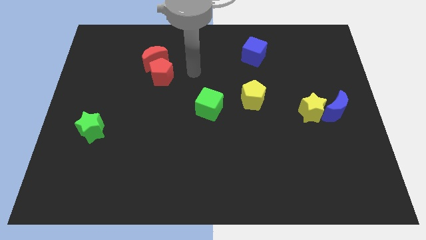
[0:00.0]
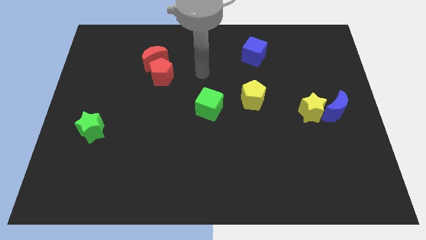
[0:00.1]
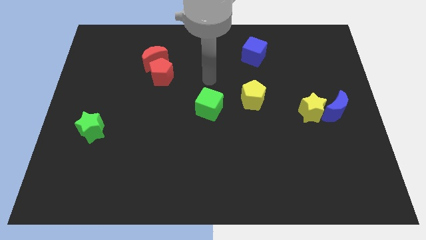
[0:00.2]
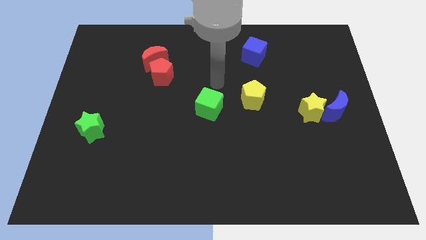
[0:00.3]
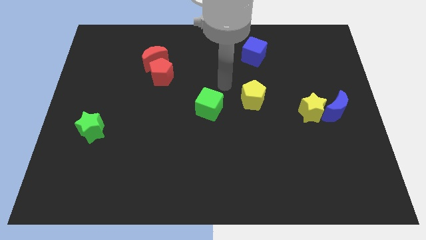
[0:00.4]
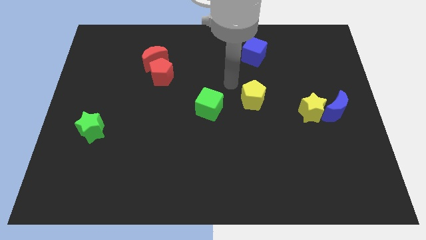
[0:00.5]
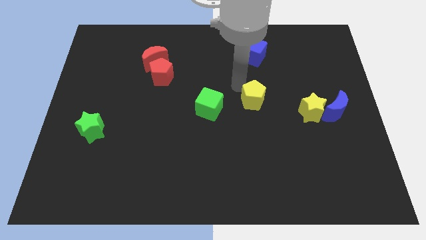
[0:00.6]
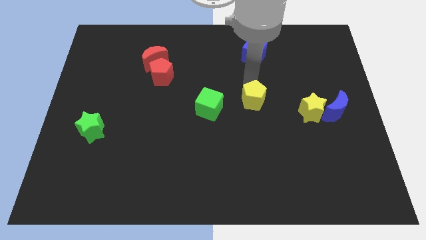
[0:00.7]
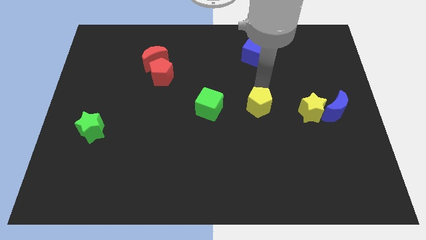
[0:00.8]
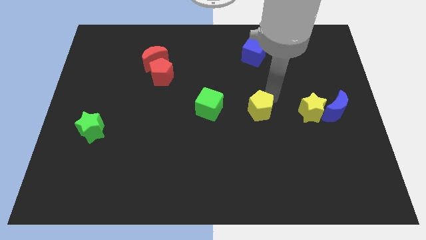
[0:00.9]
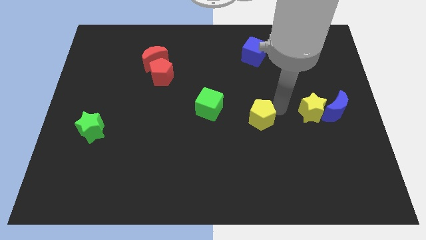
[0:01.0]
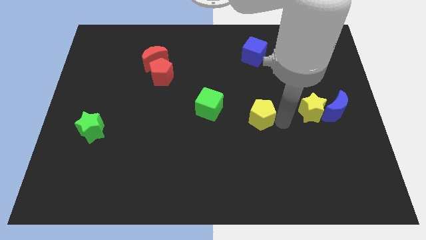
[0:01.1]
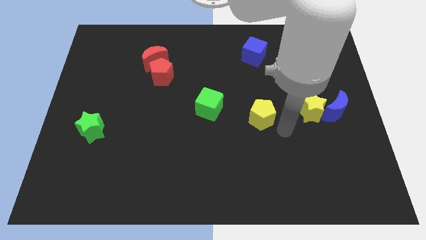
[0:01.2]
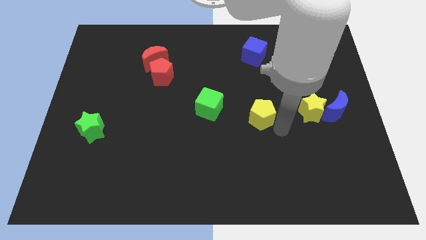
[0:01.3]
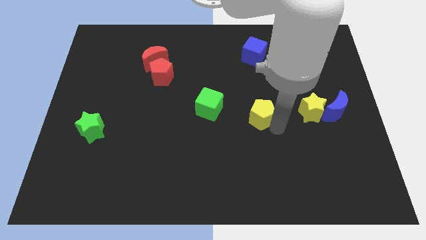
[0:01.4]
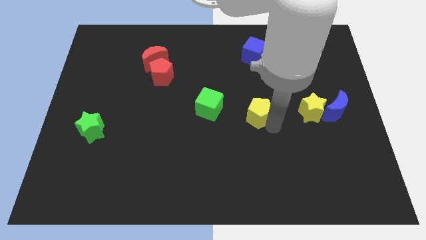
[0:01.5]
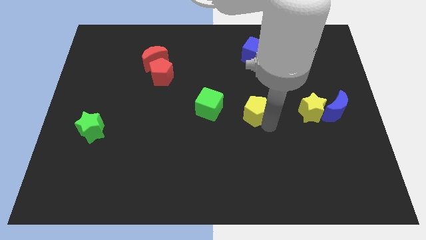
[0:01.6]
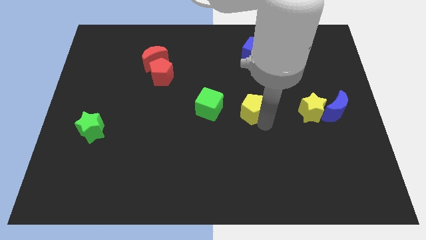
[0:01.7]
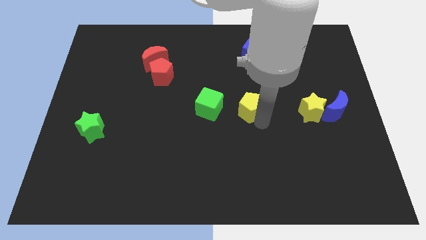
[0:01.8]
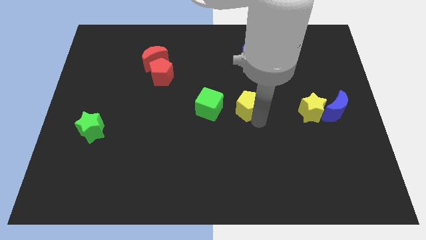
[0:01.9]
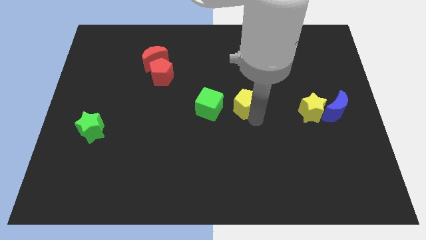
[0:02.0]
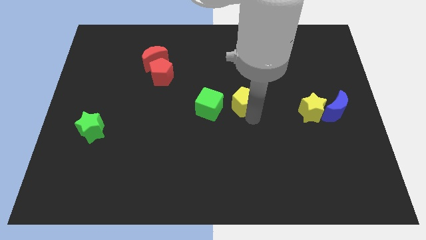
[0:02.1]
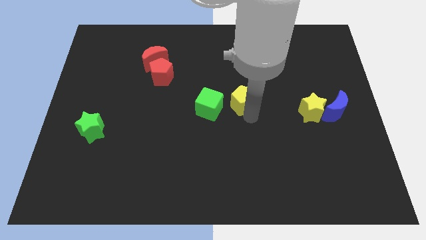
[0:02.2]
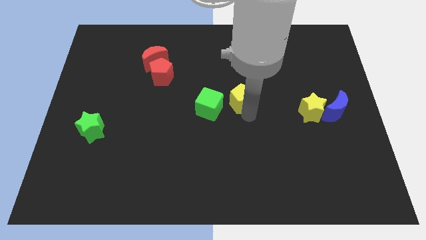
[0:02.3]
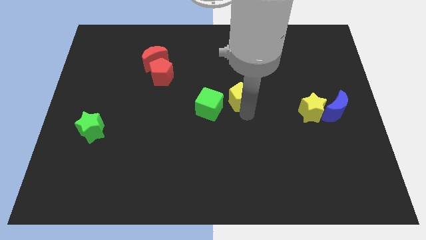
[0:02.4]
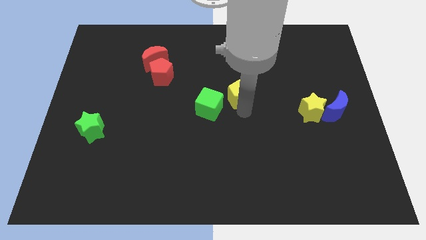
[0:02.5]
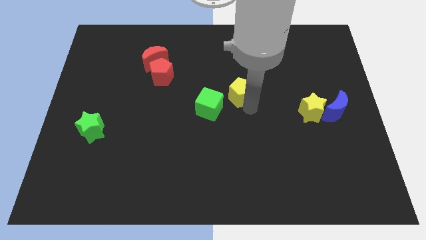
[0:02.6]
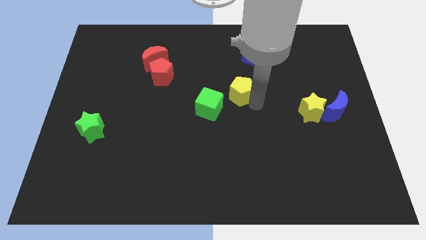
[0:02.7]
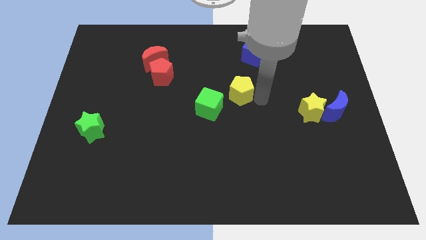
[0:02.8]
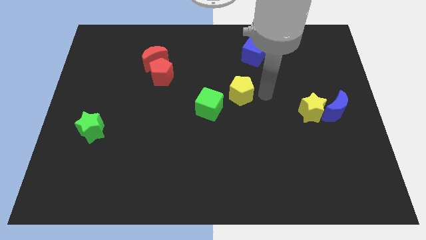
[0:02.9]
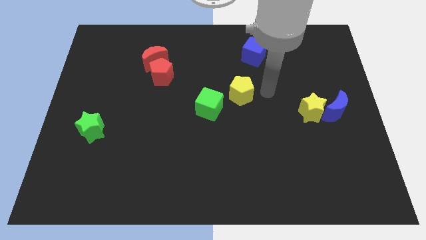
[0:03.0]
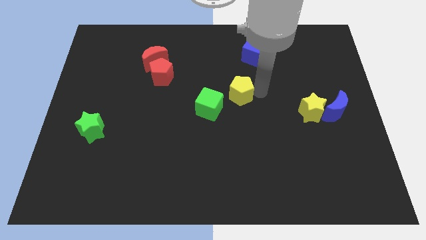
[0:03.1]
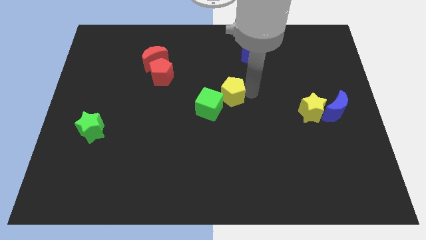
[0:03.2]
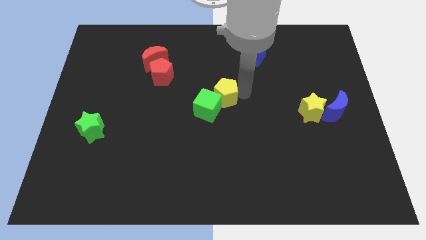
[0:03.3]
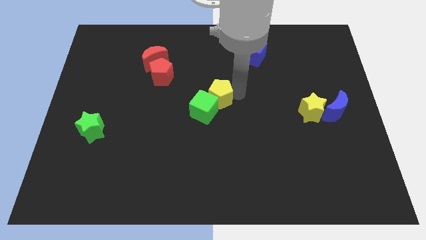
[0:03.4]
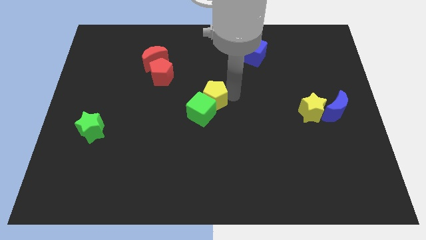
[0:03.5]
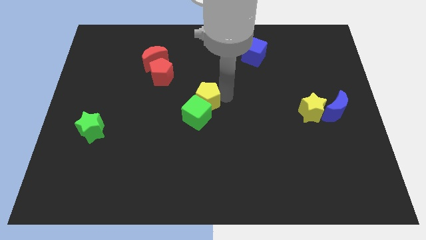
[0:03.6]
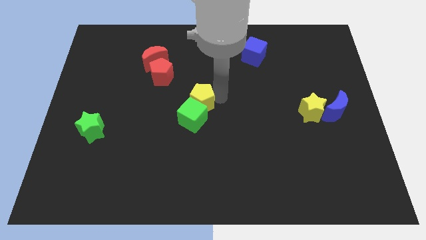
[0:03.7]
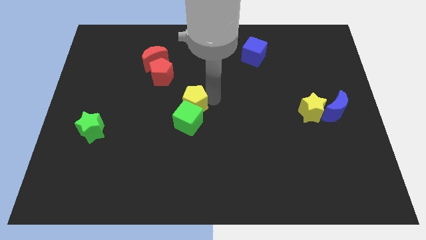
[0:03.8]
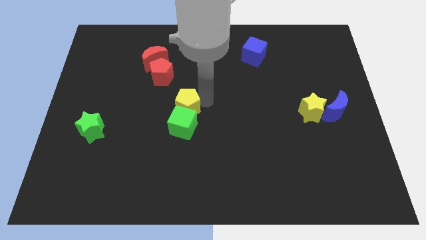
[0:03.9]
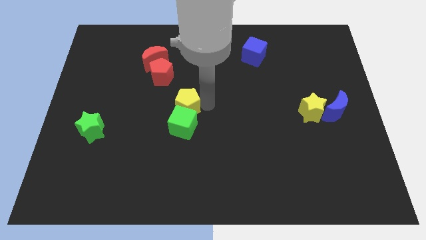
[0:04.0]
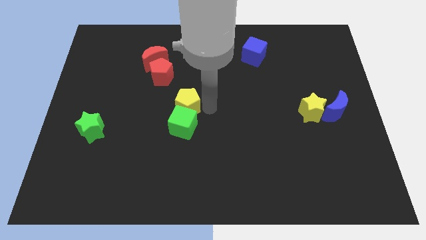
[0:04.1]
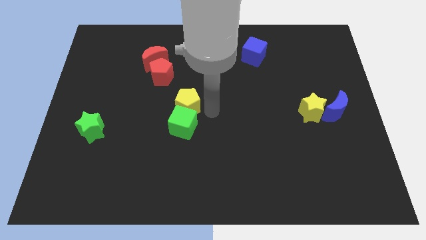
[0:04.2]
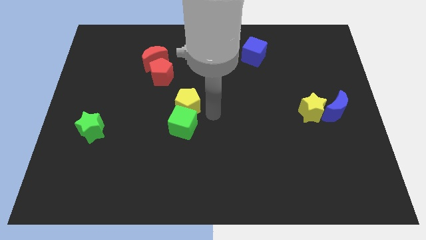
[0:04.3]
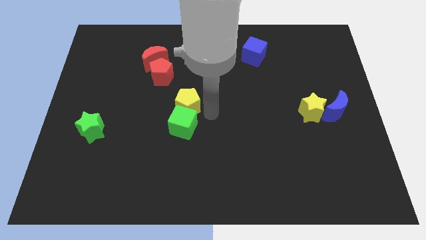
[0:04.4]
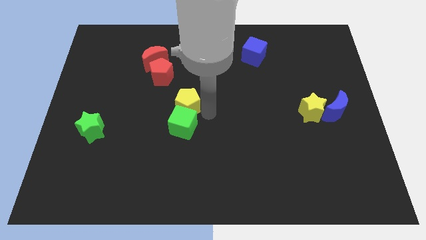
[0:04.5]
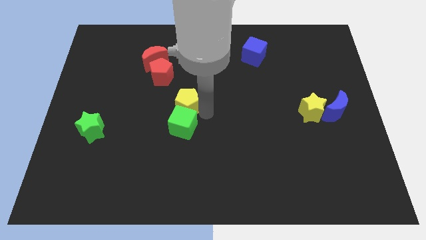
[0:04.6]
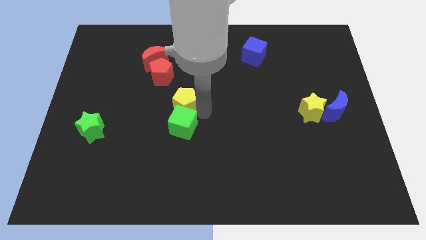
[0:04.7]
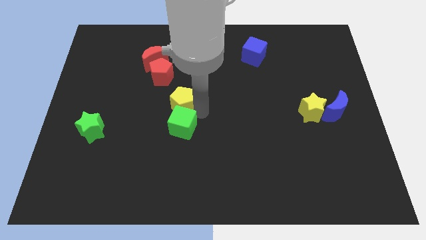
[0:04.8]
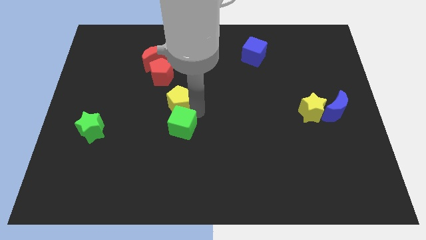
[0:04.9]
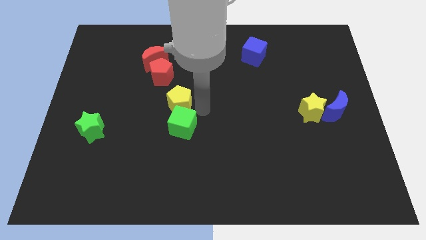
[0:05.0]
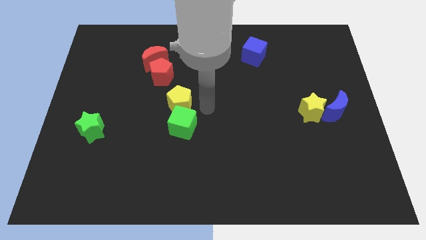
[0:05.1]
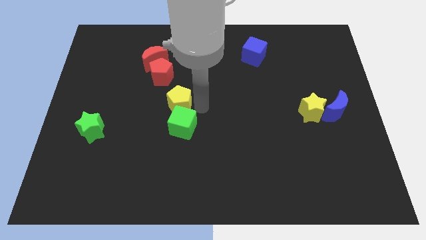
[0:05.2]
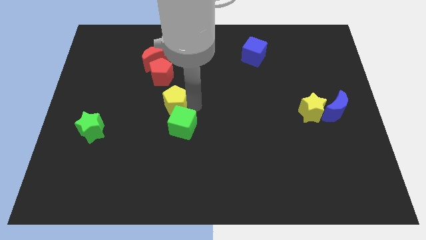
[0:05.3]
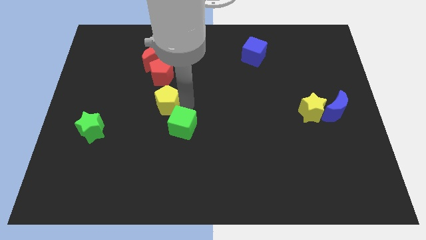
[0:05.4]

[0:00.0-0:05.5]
slide the yellow pentagon to the left

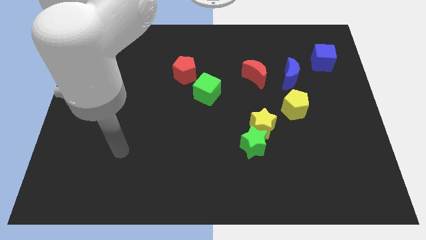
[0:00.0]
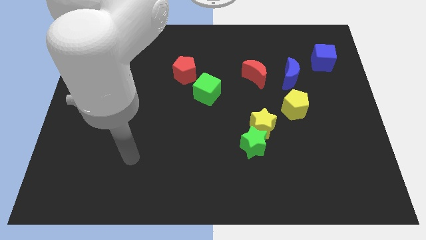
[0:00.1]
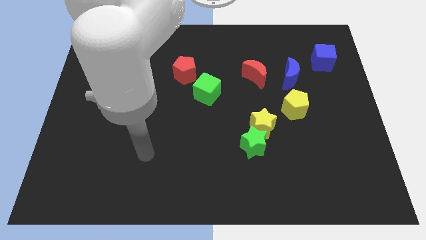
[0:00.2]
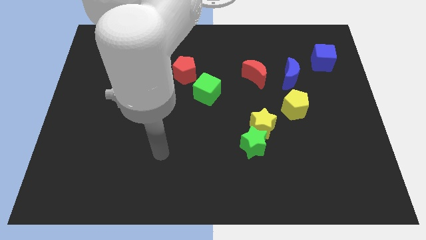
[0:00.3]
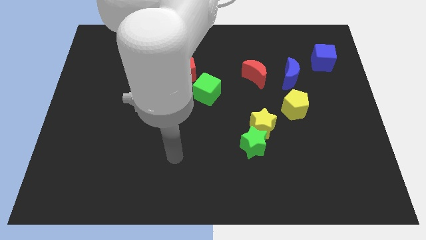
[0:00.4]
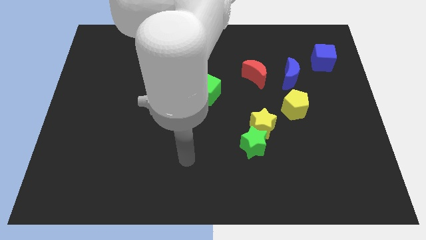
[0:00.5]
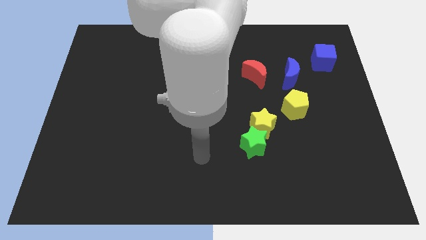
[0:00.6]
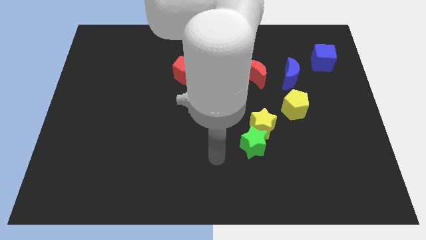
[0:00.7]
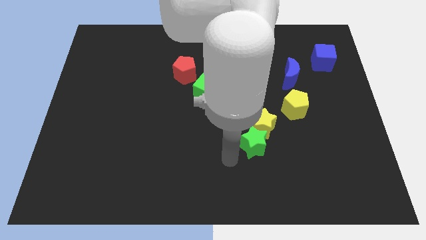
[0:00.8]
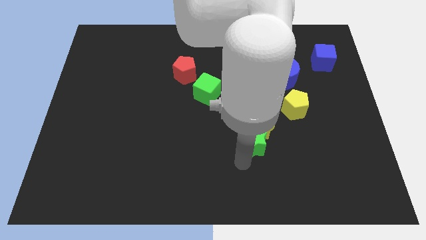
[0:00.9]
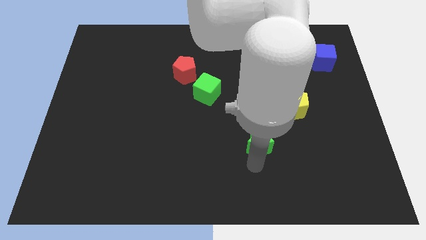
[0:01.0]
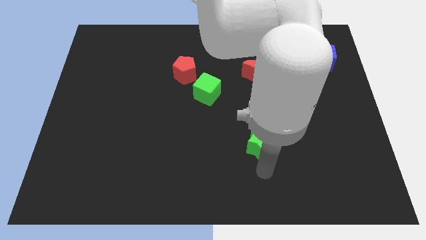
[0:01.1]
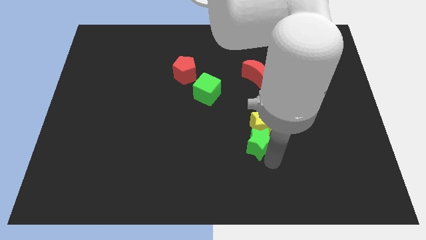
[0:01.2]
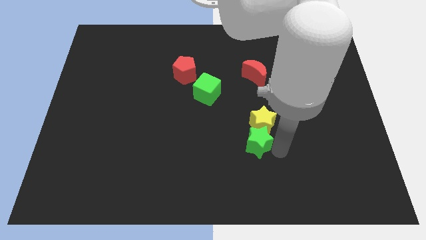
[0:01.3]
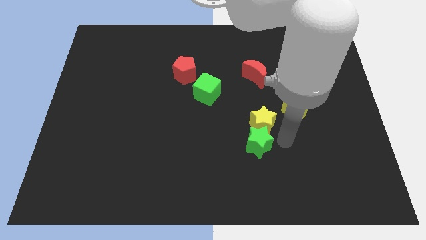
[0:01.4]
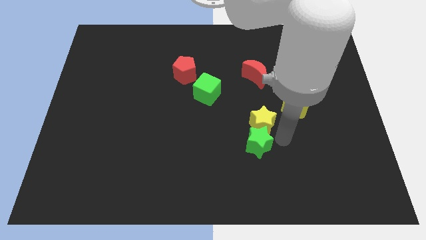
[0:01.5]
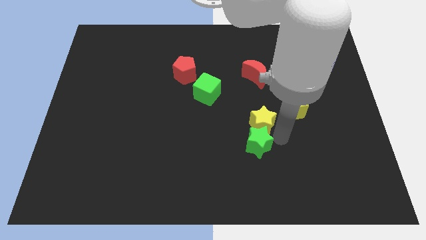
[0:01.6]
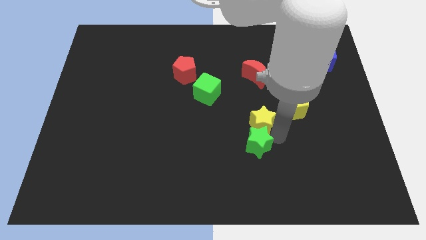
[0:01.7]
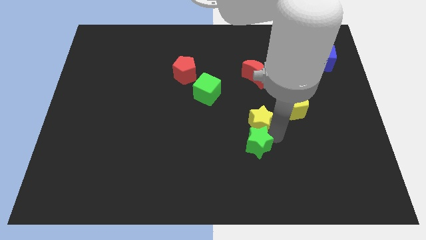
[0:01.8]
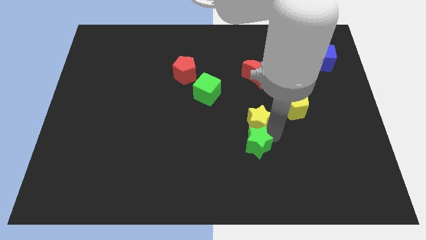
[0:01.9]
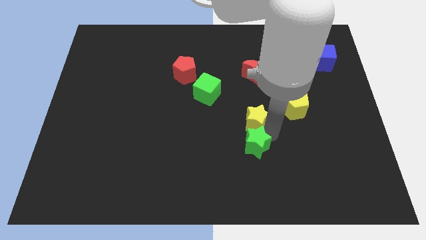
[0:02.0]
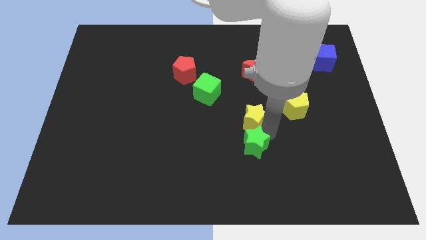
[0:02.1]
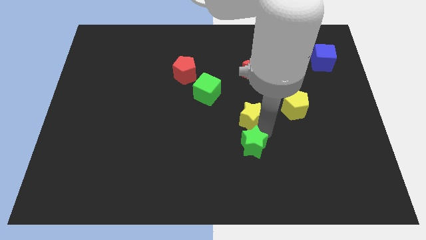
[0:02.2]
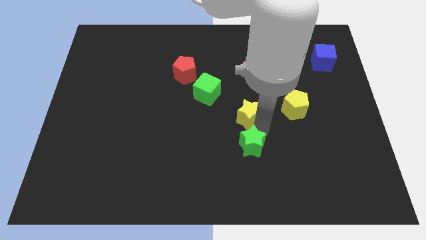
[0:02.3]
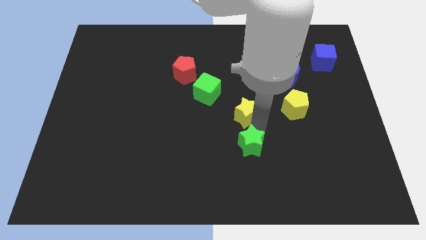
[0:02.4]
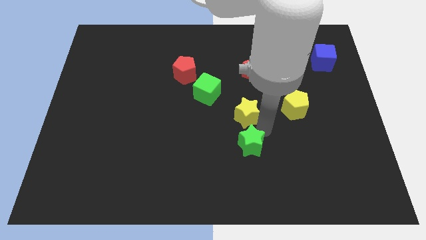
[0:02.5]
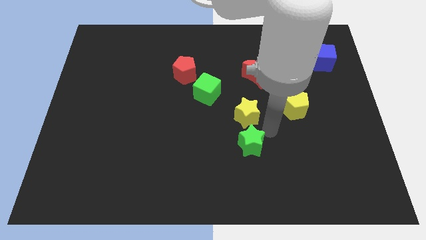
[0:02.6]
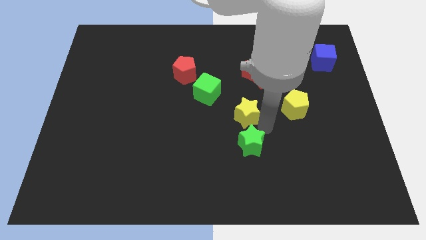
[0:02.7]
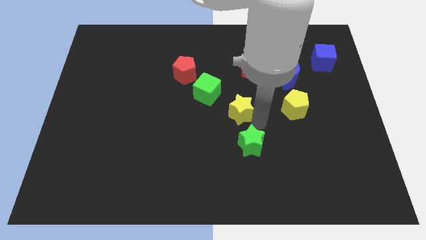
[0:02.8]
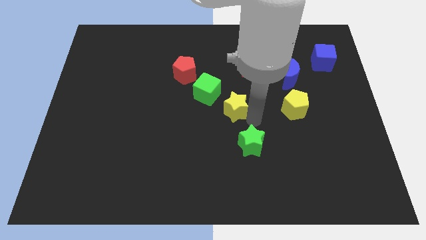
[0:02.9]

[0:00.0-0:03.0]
slide the yellow star slightly up and then left
